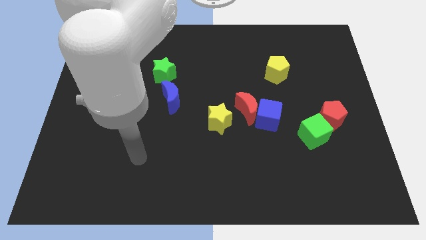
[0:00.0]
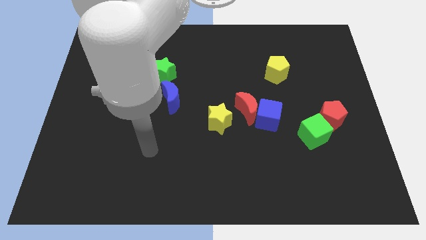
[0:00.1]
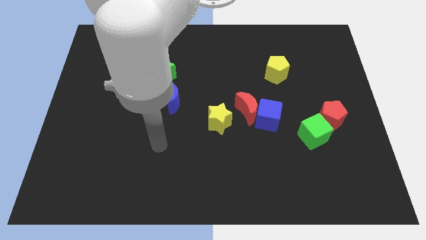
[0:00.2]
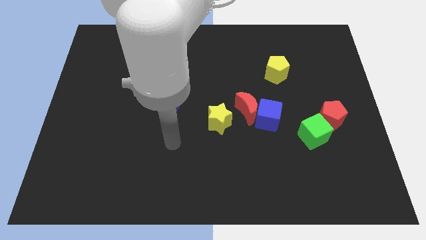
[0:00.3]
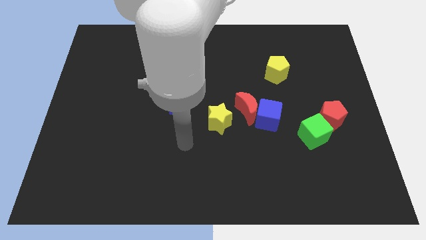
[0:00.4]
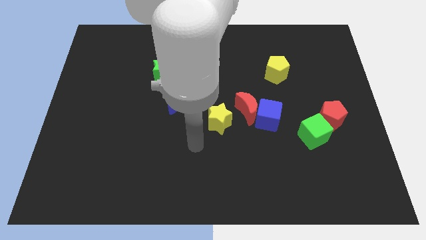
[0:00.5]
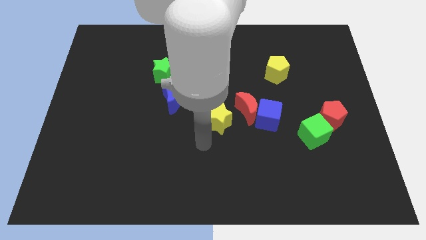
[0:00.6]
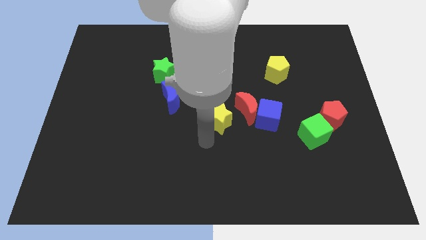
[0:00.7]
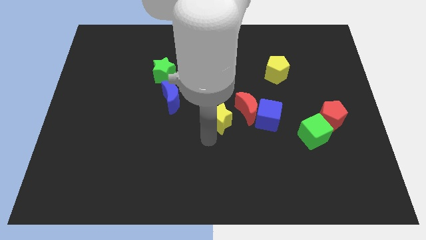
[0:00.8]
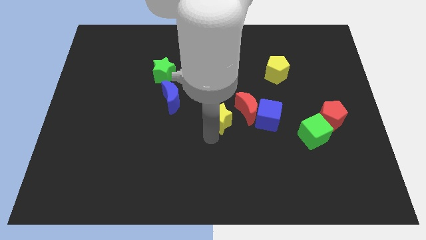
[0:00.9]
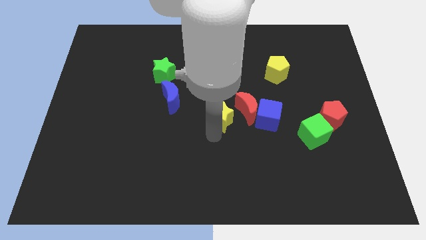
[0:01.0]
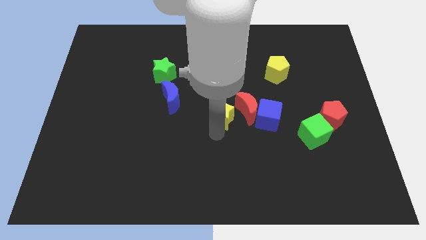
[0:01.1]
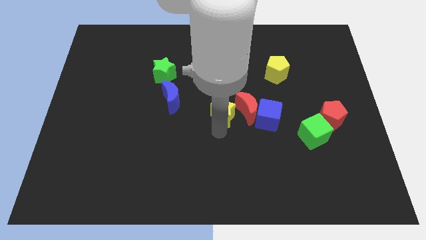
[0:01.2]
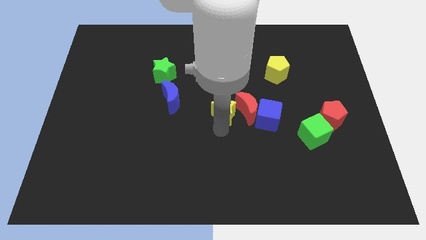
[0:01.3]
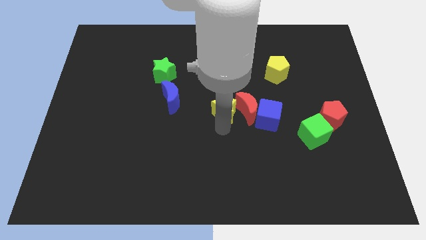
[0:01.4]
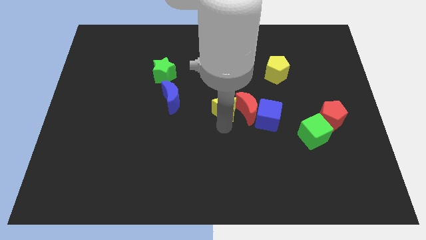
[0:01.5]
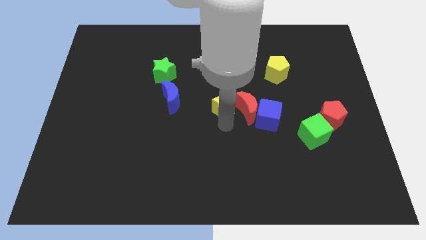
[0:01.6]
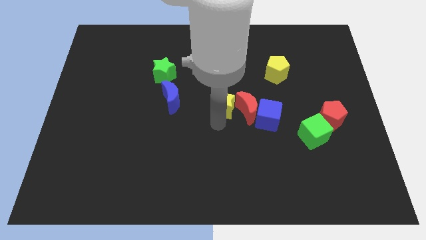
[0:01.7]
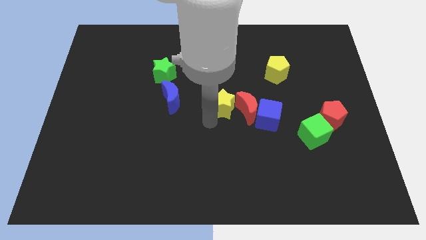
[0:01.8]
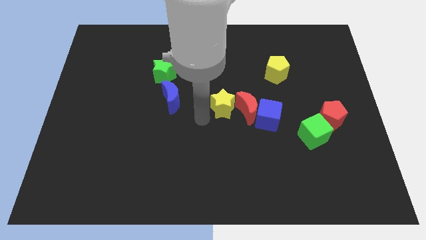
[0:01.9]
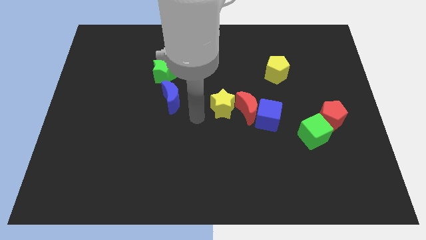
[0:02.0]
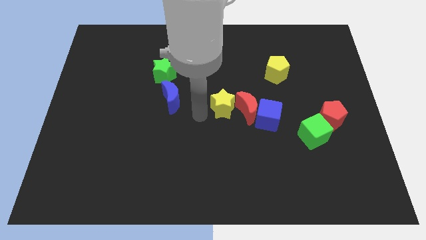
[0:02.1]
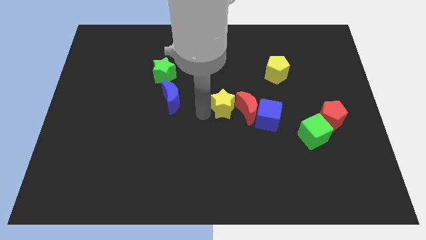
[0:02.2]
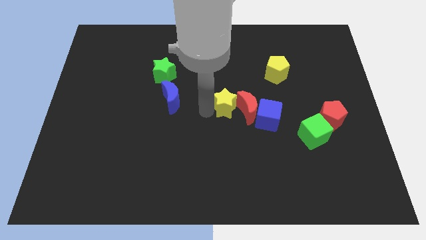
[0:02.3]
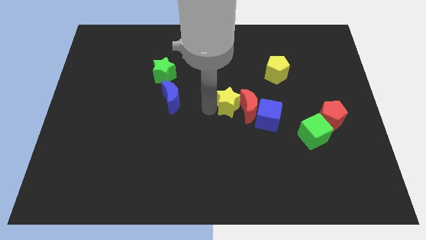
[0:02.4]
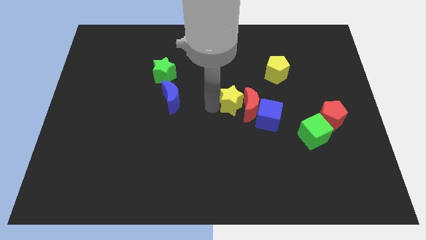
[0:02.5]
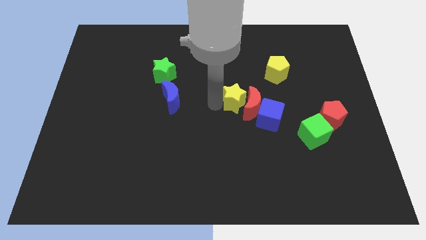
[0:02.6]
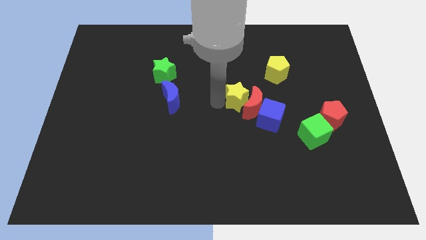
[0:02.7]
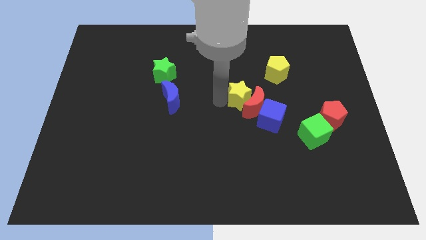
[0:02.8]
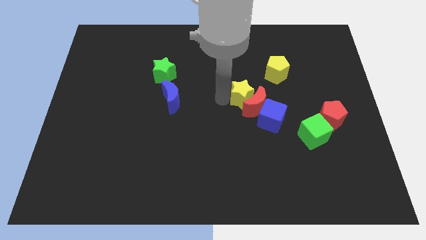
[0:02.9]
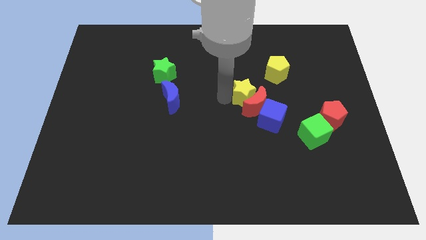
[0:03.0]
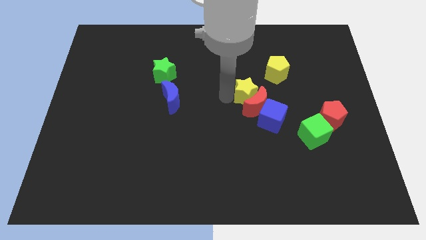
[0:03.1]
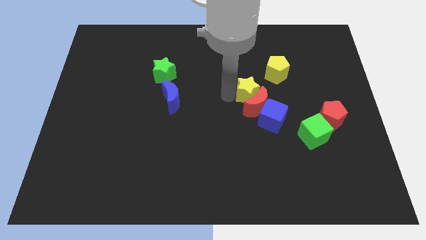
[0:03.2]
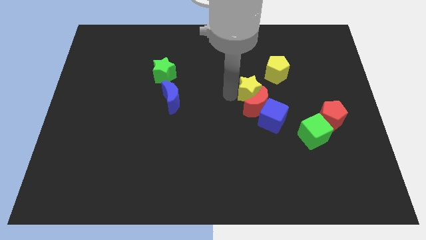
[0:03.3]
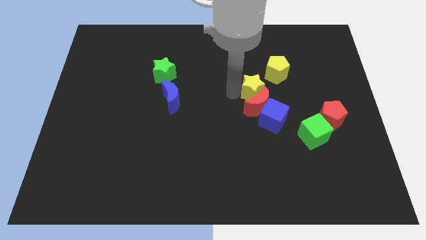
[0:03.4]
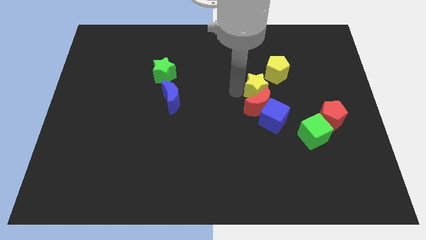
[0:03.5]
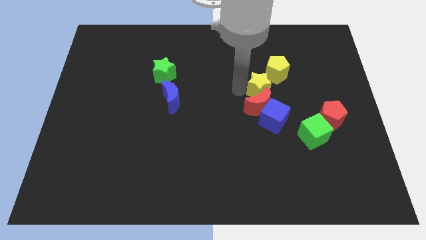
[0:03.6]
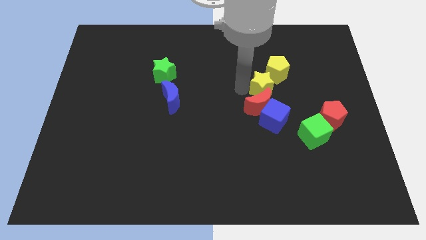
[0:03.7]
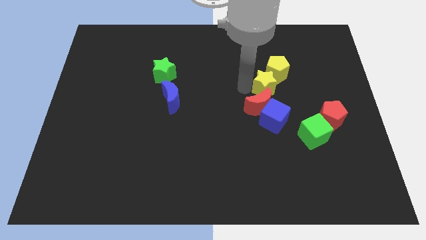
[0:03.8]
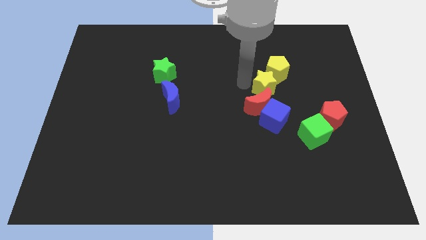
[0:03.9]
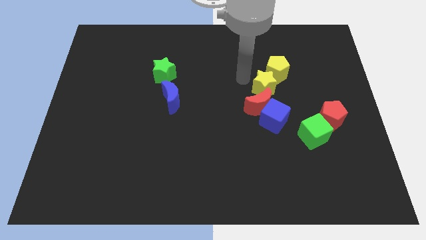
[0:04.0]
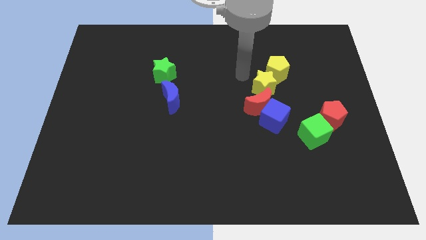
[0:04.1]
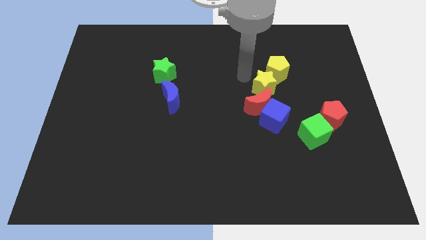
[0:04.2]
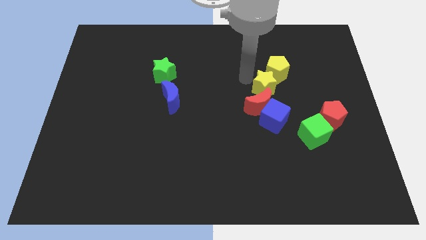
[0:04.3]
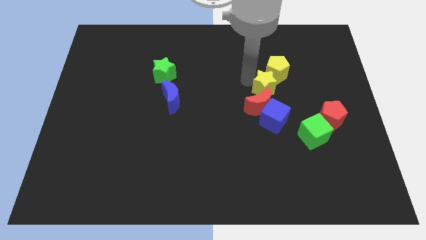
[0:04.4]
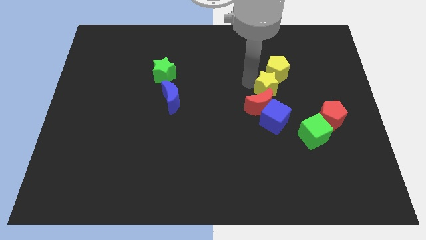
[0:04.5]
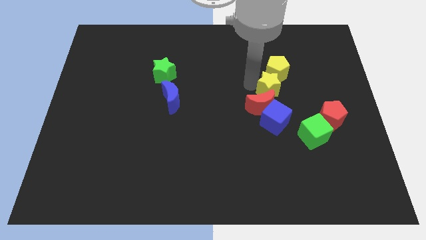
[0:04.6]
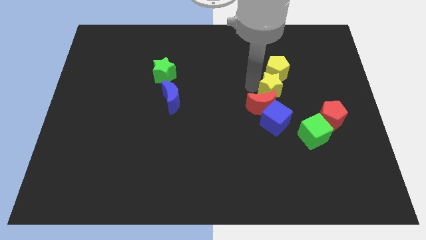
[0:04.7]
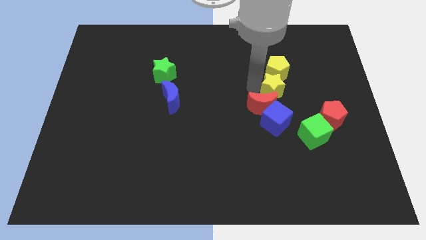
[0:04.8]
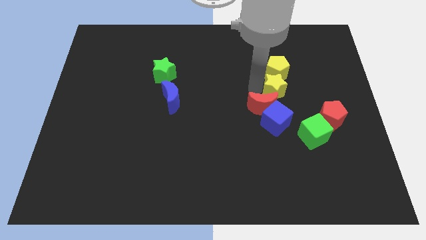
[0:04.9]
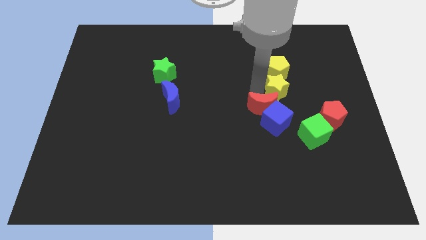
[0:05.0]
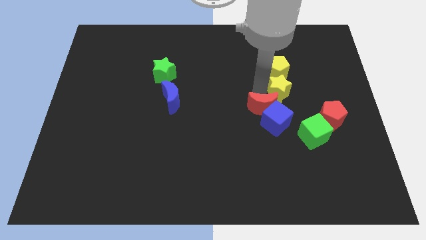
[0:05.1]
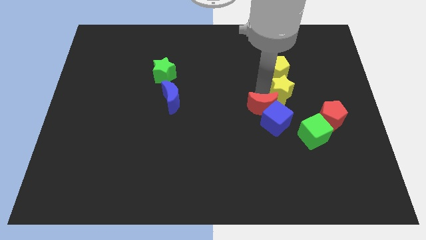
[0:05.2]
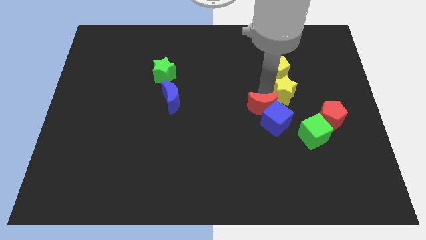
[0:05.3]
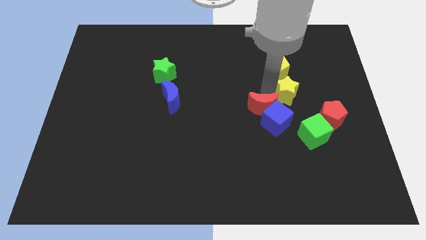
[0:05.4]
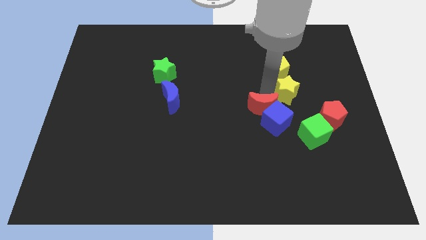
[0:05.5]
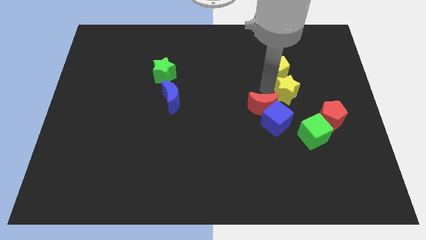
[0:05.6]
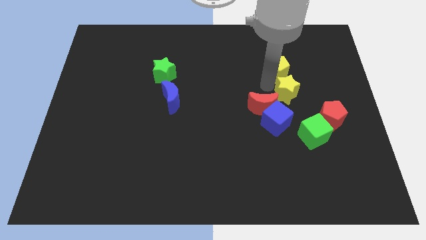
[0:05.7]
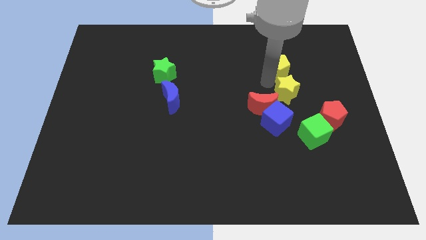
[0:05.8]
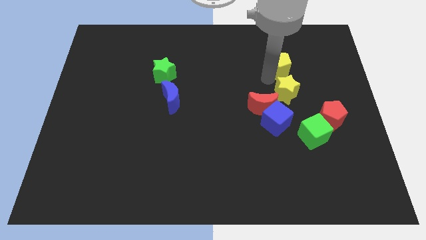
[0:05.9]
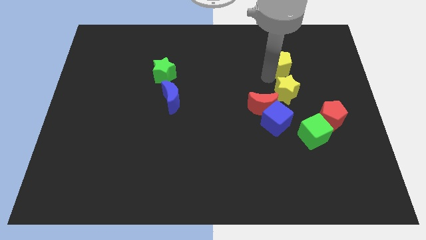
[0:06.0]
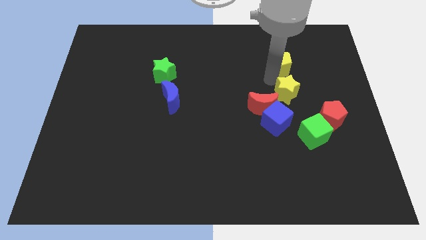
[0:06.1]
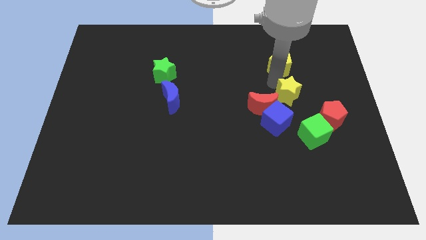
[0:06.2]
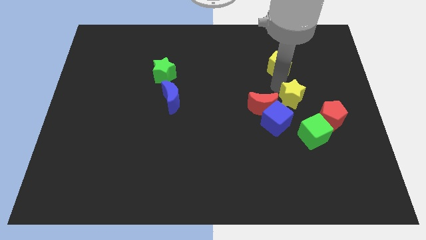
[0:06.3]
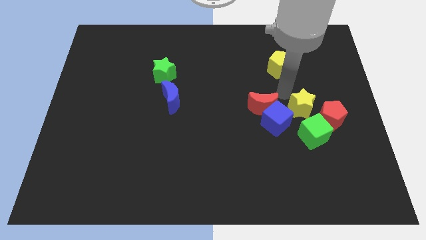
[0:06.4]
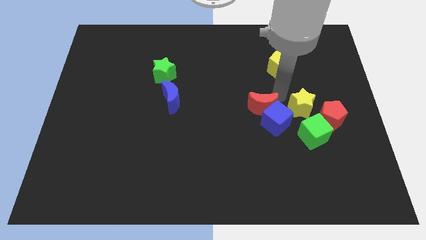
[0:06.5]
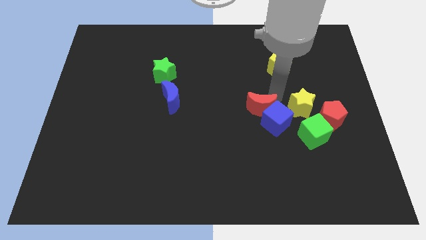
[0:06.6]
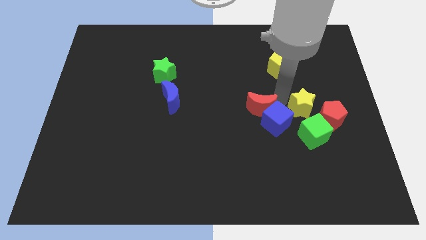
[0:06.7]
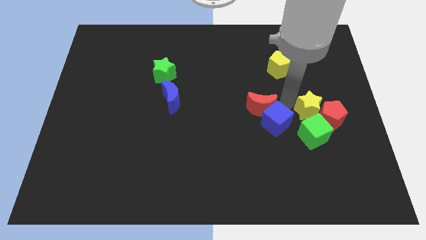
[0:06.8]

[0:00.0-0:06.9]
push the yellow star to the red pentagon

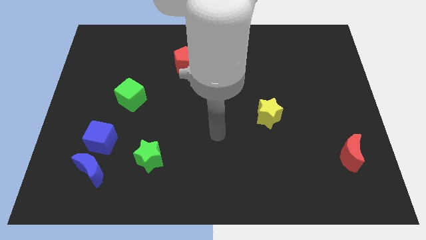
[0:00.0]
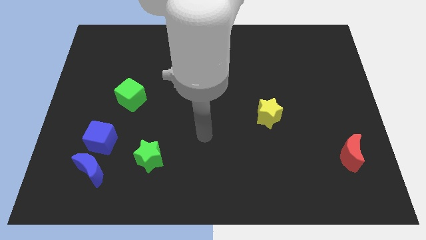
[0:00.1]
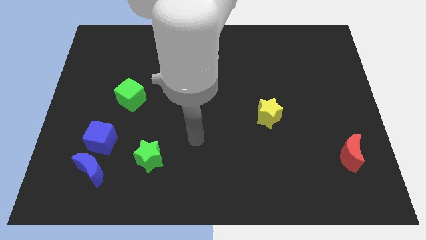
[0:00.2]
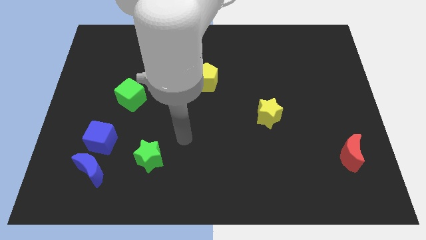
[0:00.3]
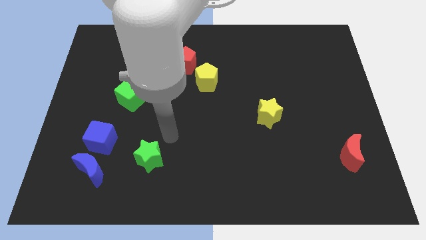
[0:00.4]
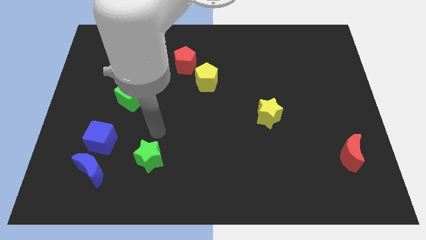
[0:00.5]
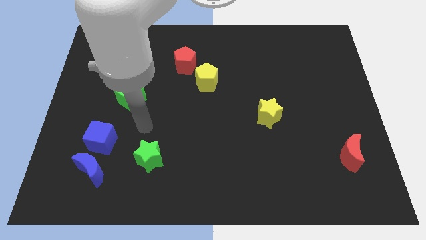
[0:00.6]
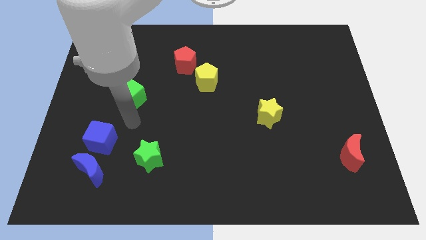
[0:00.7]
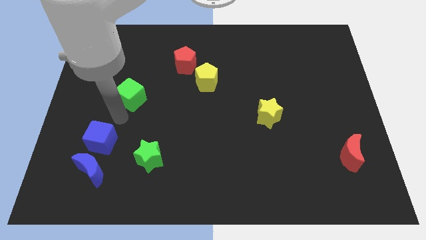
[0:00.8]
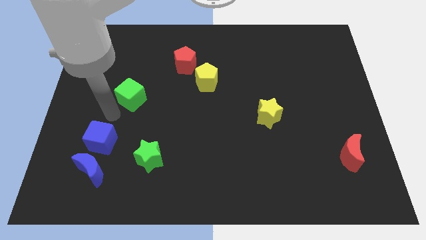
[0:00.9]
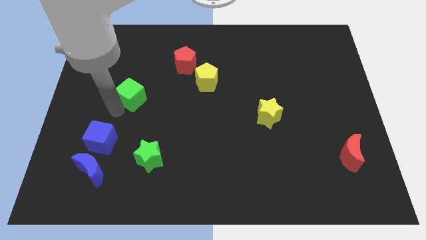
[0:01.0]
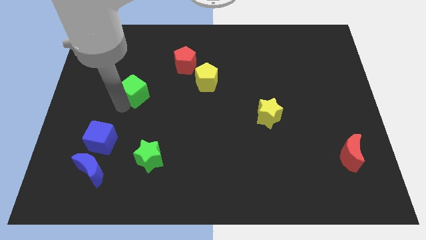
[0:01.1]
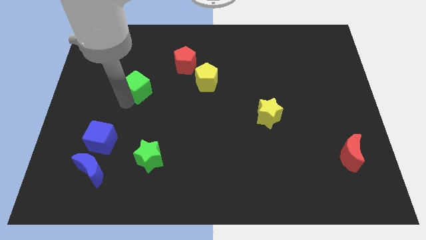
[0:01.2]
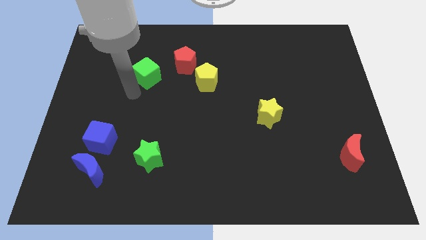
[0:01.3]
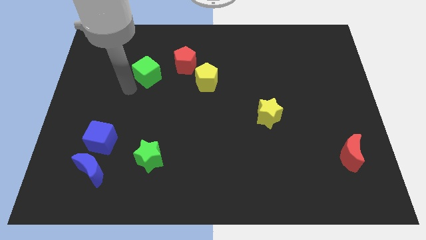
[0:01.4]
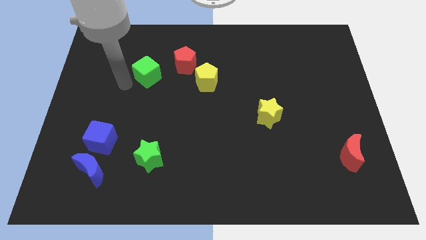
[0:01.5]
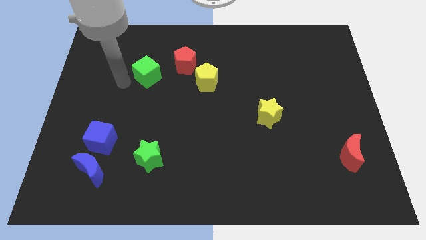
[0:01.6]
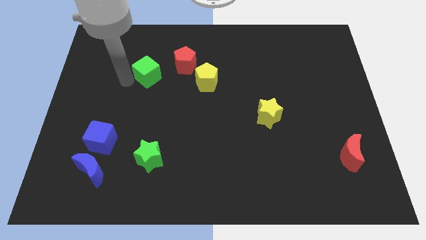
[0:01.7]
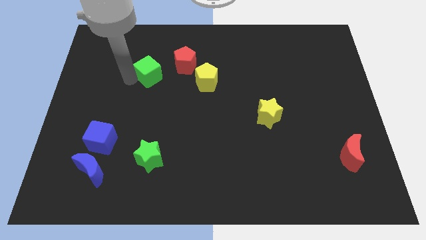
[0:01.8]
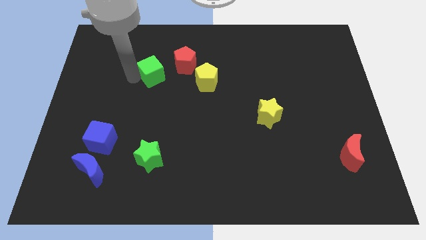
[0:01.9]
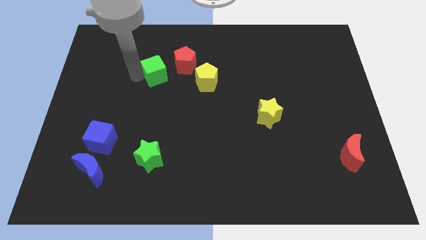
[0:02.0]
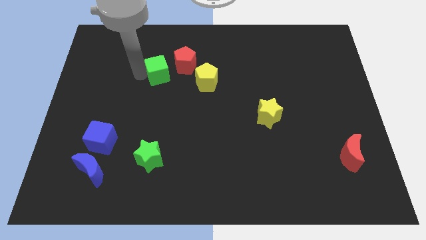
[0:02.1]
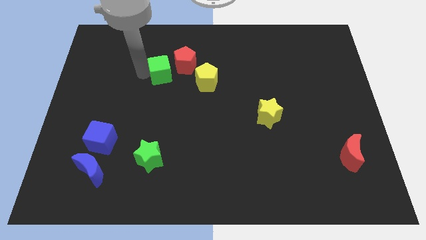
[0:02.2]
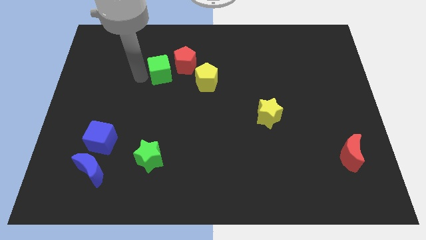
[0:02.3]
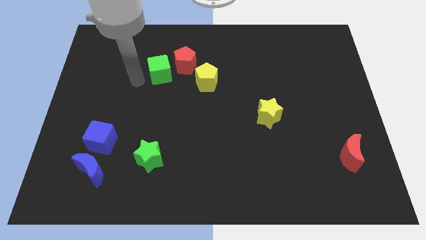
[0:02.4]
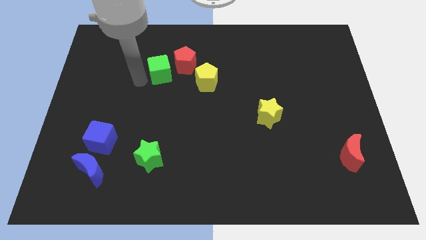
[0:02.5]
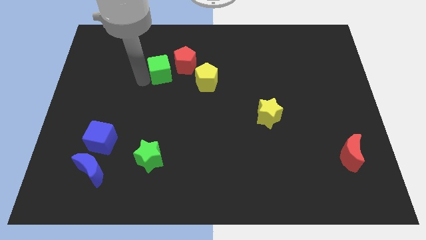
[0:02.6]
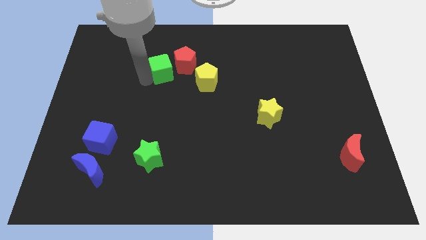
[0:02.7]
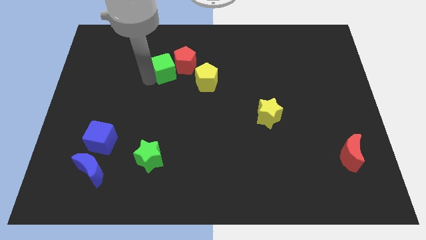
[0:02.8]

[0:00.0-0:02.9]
push the green cube towards the red pentagon
